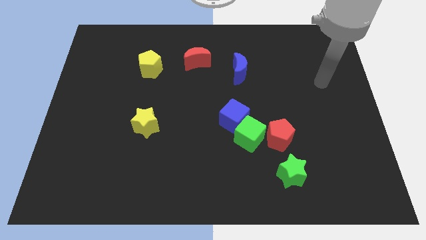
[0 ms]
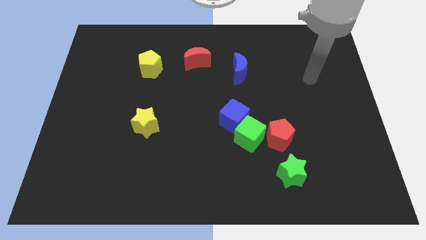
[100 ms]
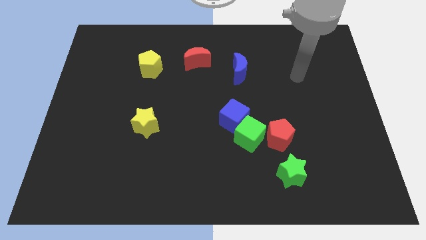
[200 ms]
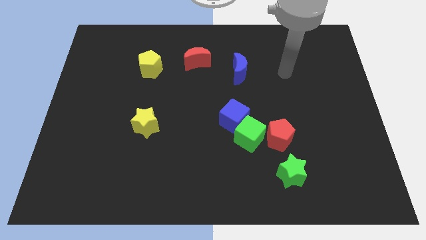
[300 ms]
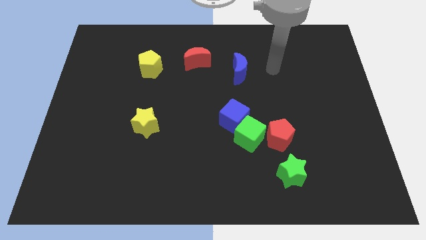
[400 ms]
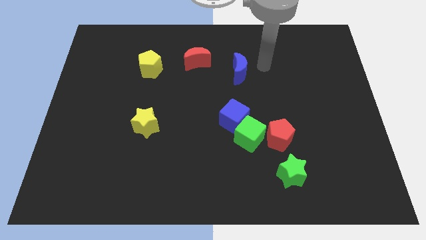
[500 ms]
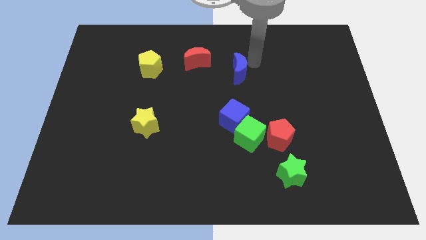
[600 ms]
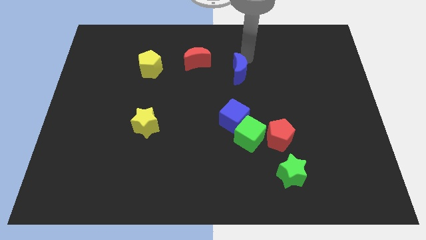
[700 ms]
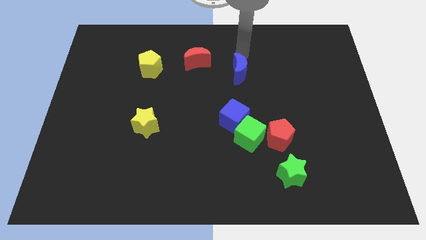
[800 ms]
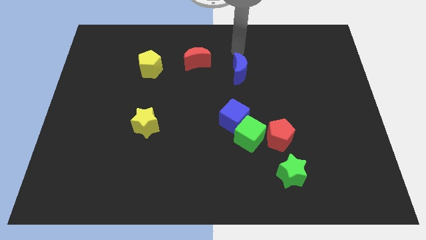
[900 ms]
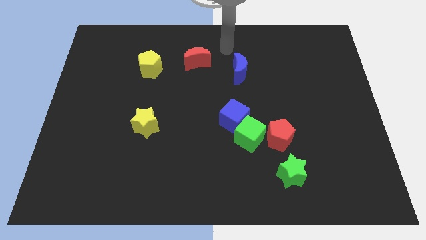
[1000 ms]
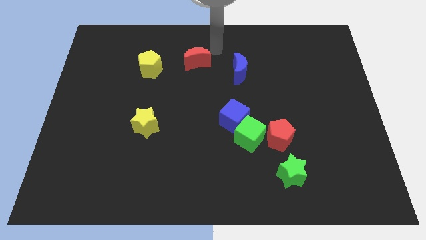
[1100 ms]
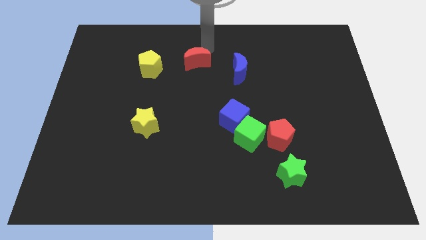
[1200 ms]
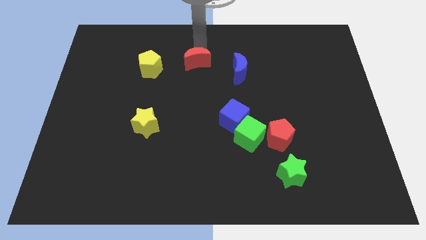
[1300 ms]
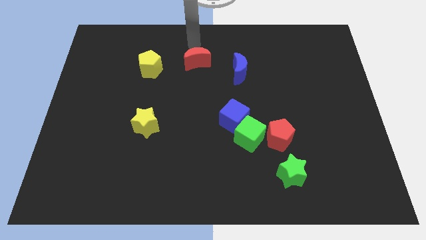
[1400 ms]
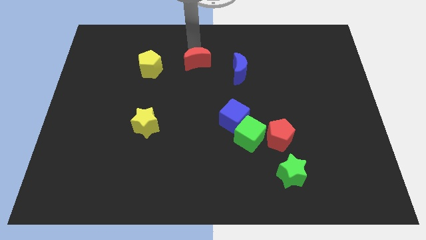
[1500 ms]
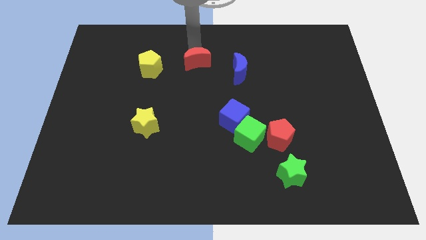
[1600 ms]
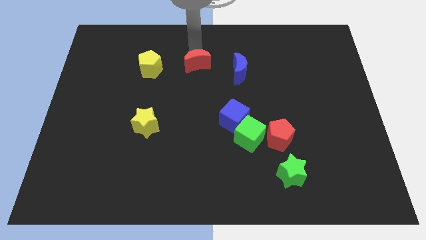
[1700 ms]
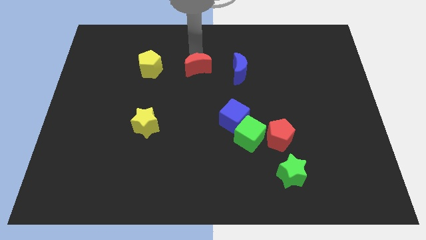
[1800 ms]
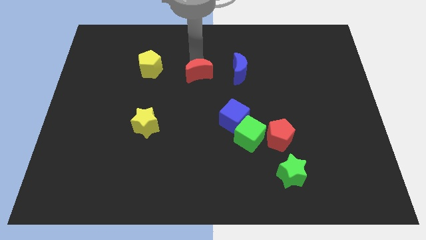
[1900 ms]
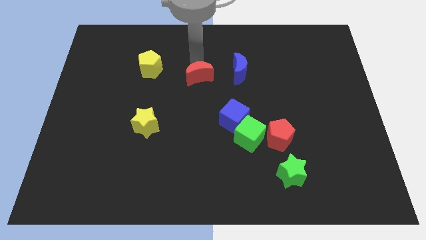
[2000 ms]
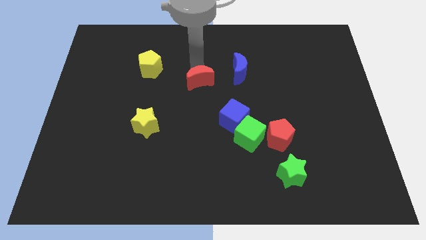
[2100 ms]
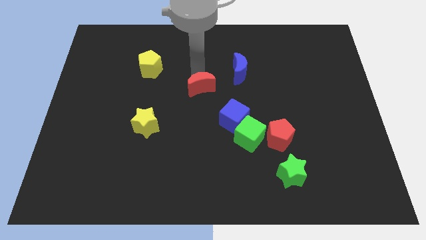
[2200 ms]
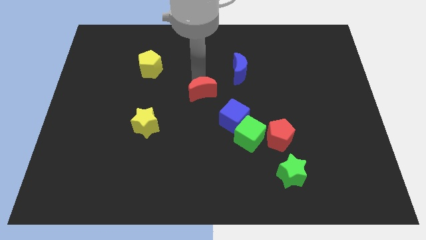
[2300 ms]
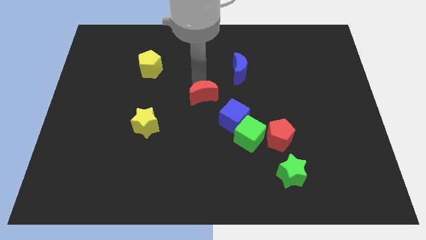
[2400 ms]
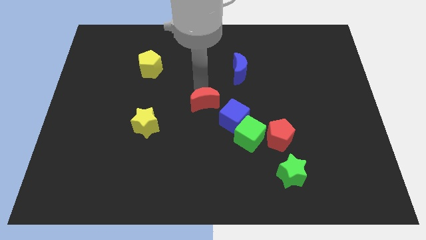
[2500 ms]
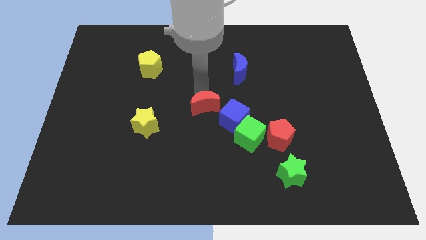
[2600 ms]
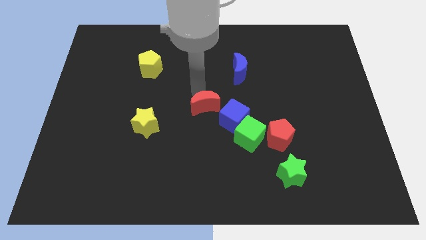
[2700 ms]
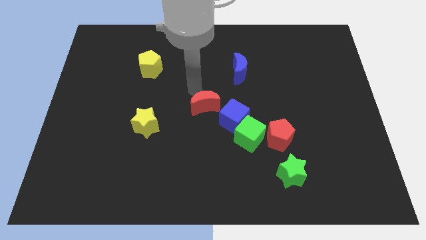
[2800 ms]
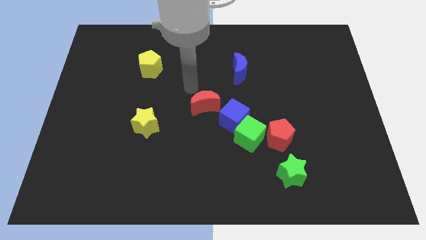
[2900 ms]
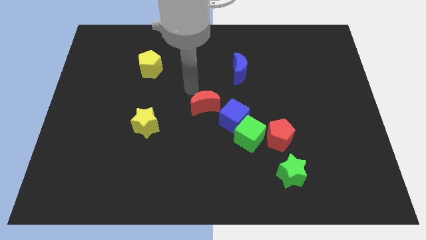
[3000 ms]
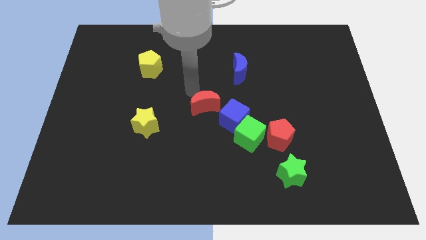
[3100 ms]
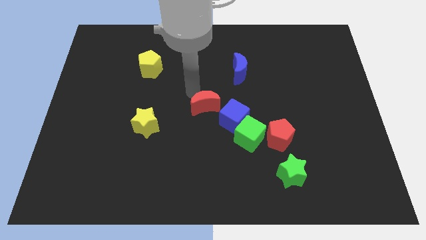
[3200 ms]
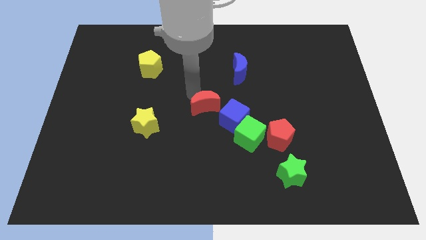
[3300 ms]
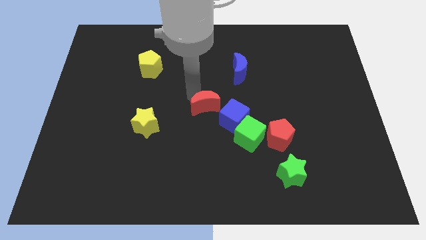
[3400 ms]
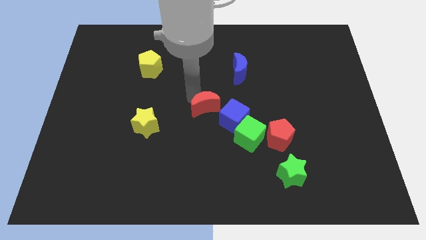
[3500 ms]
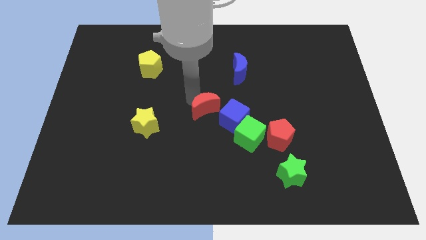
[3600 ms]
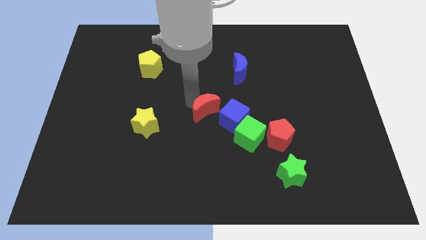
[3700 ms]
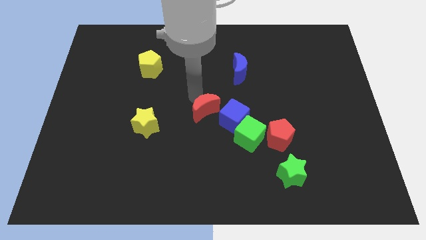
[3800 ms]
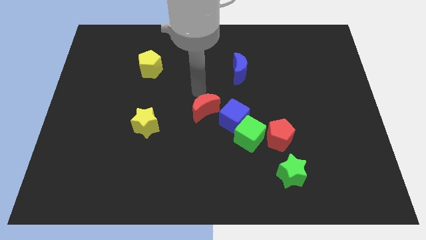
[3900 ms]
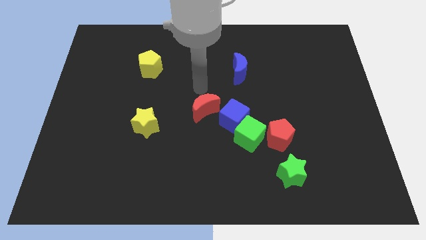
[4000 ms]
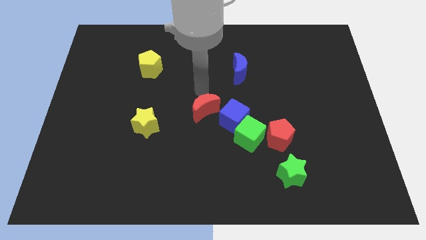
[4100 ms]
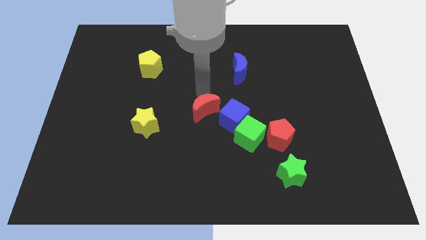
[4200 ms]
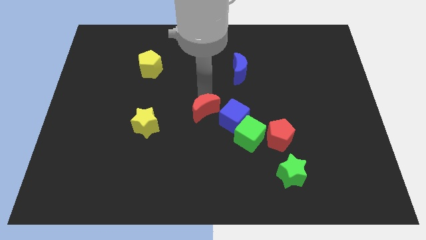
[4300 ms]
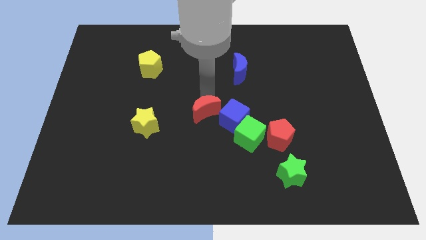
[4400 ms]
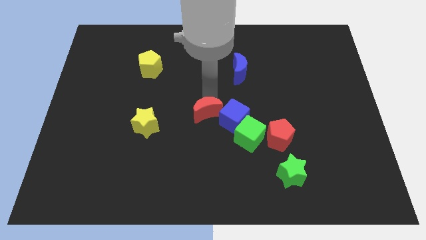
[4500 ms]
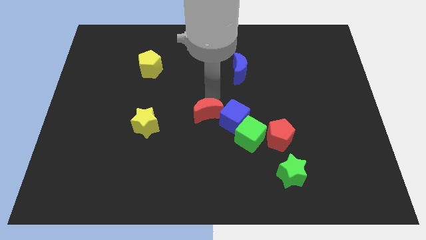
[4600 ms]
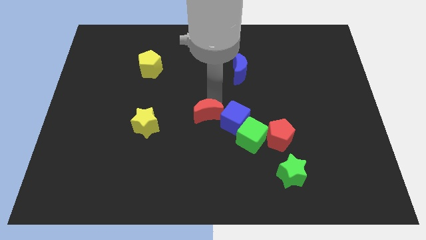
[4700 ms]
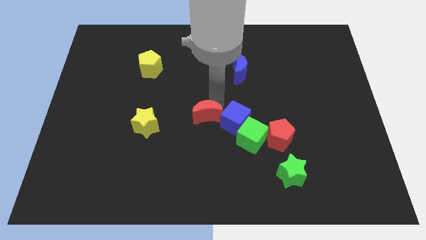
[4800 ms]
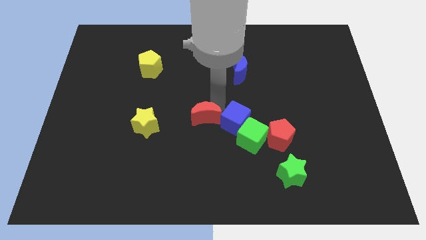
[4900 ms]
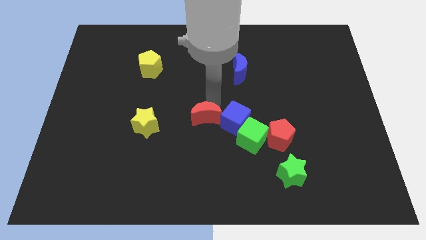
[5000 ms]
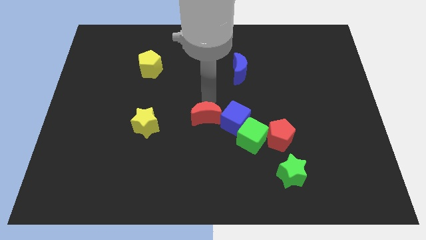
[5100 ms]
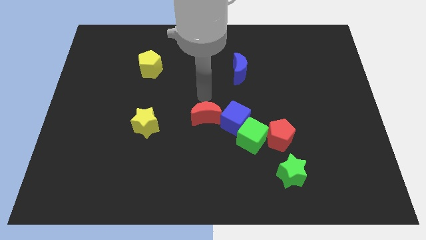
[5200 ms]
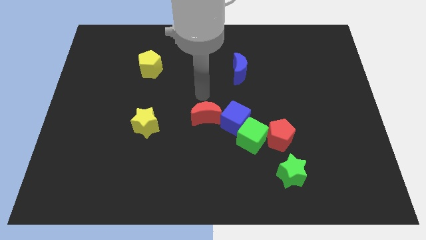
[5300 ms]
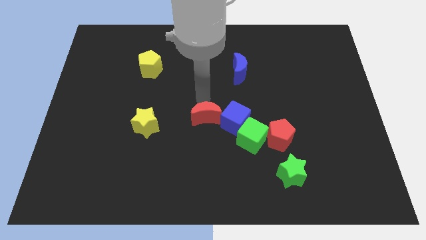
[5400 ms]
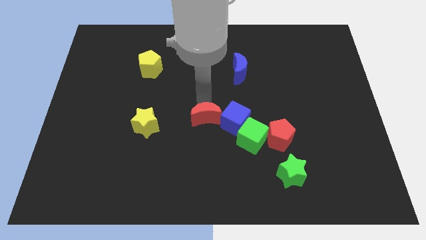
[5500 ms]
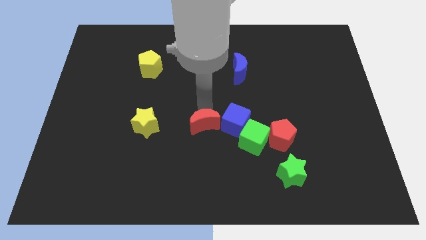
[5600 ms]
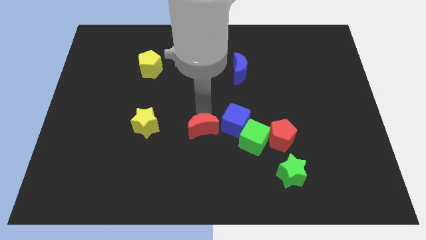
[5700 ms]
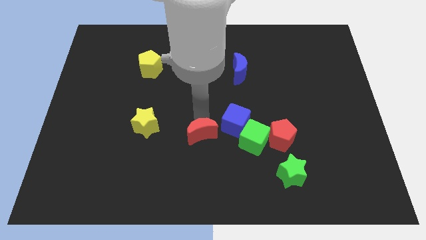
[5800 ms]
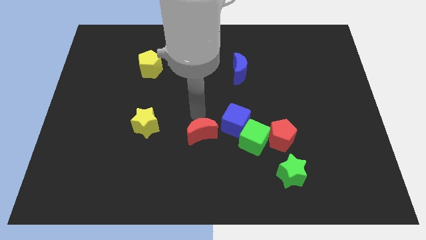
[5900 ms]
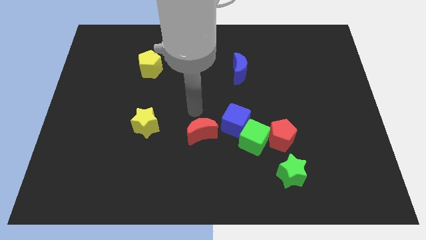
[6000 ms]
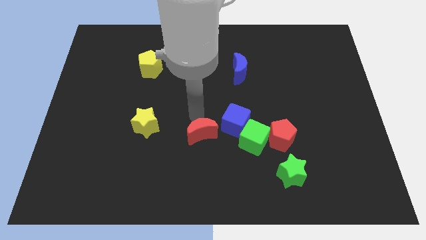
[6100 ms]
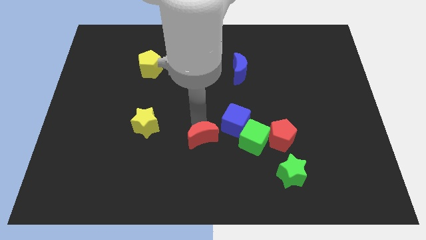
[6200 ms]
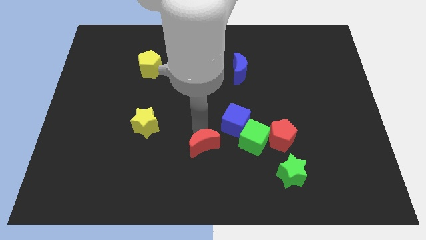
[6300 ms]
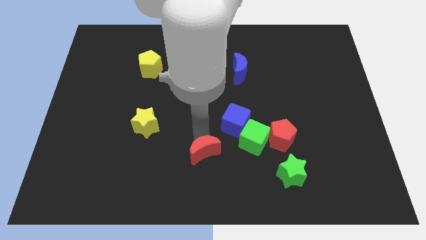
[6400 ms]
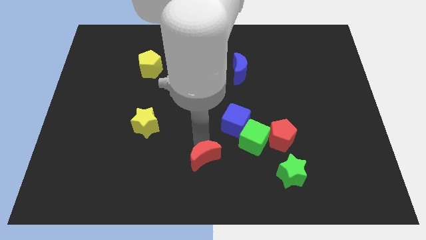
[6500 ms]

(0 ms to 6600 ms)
move the red moon to the bottom
